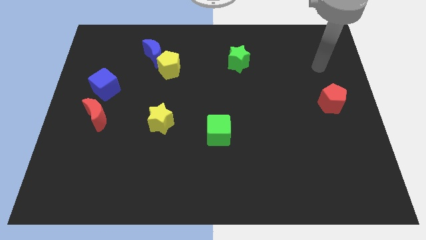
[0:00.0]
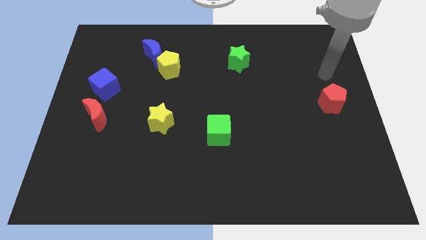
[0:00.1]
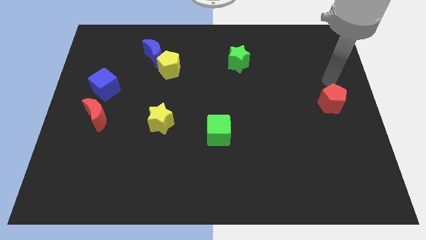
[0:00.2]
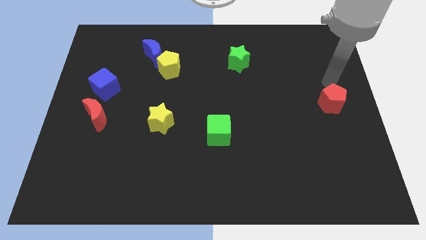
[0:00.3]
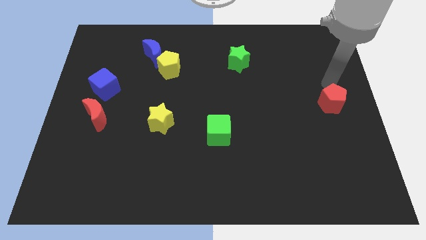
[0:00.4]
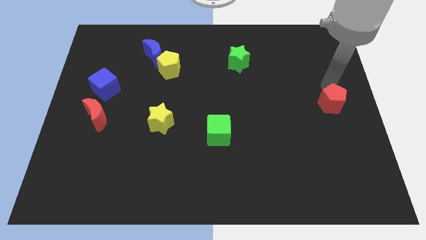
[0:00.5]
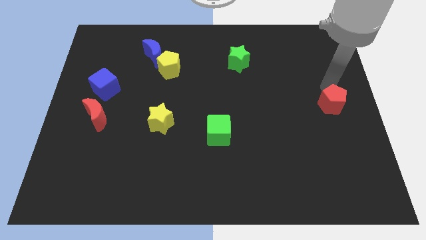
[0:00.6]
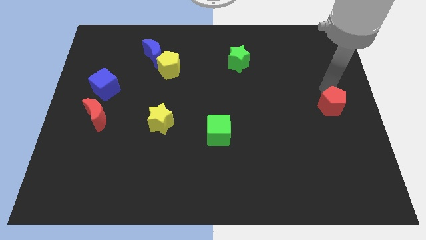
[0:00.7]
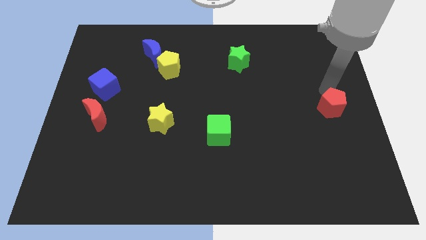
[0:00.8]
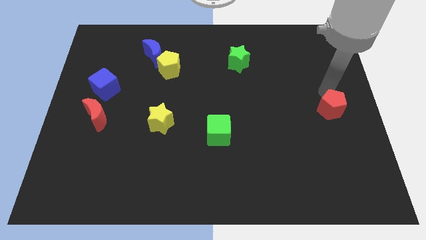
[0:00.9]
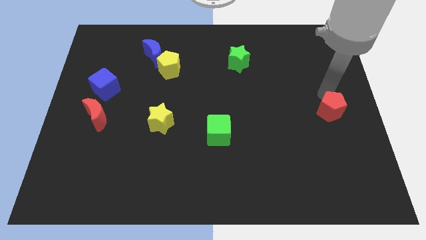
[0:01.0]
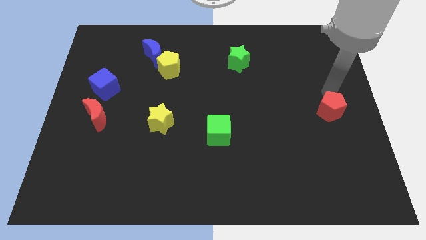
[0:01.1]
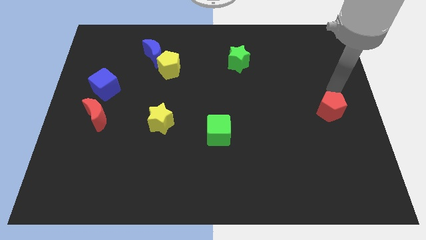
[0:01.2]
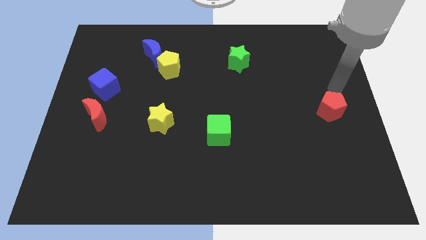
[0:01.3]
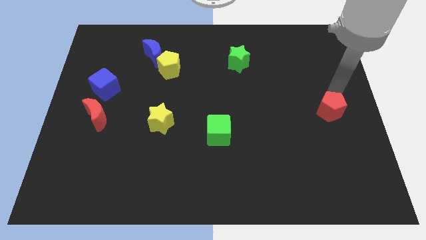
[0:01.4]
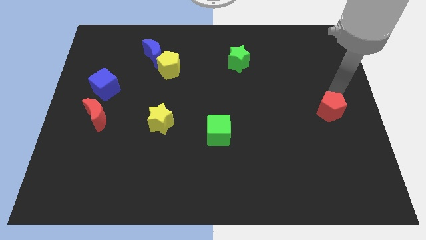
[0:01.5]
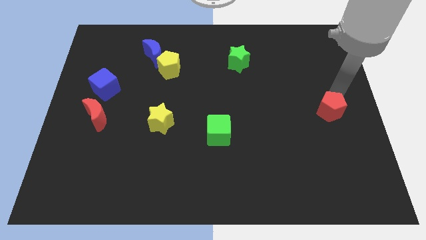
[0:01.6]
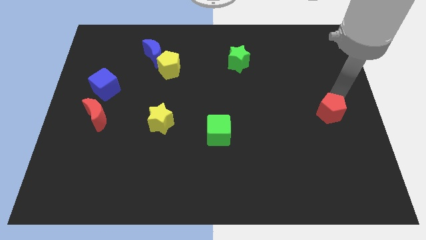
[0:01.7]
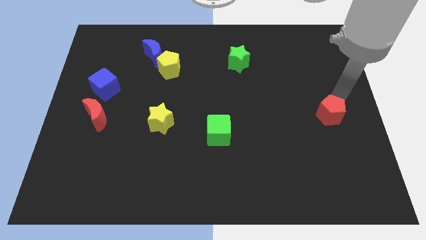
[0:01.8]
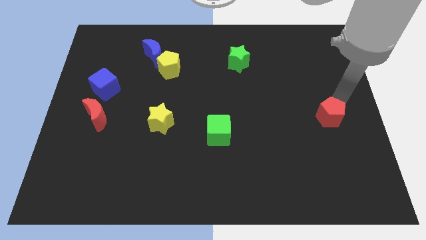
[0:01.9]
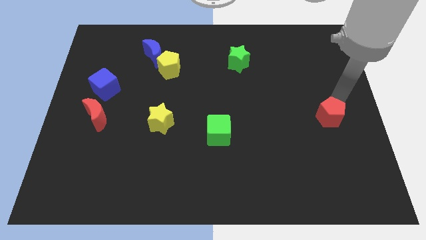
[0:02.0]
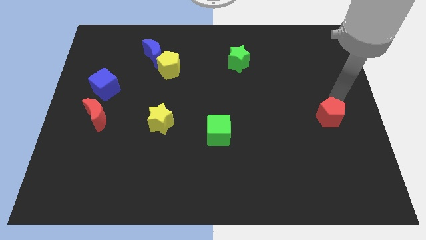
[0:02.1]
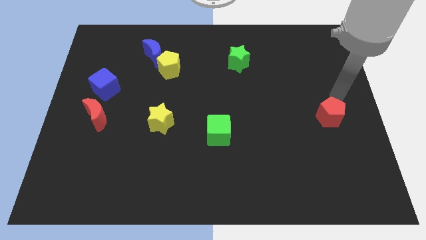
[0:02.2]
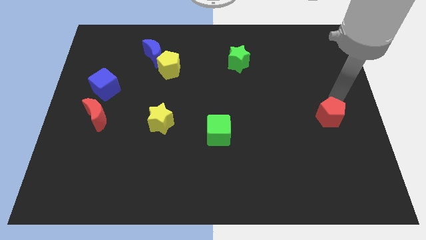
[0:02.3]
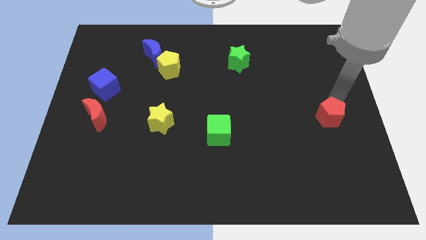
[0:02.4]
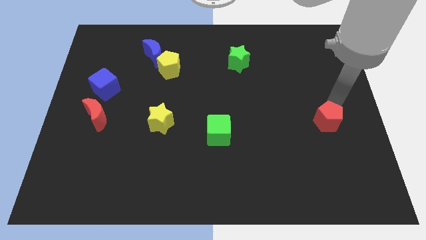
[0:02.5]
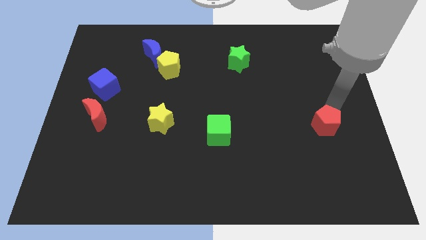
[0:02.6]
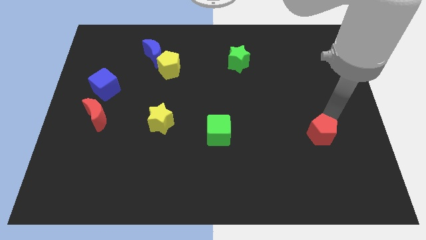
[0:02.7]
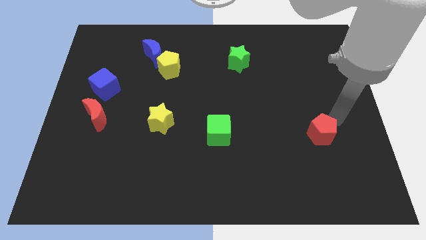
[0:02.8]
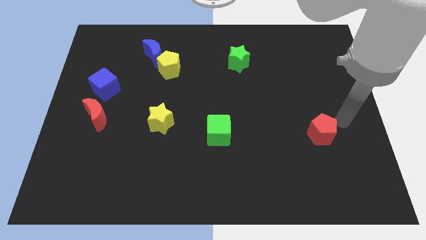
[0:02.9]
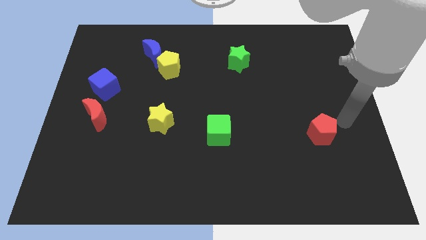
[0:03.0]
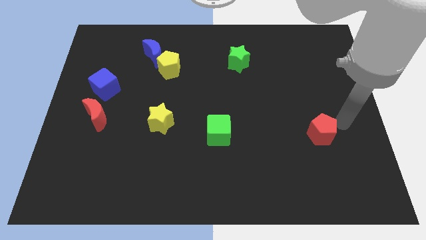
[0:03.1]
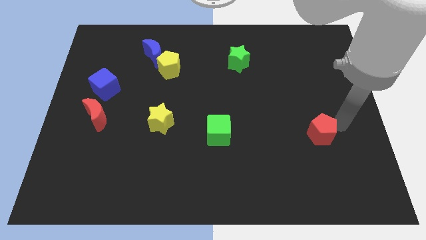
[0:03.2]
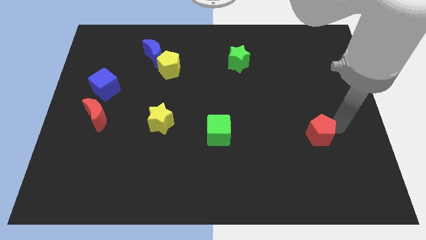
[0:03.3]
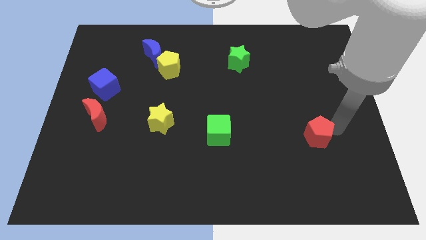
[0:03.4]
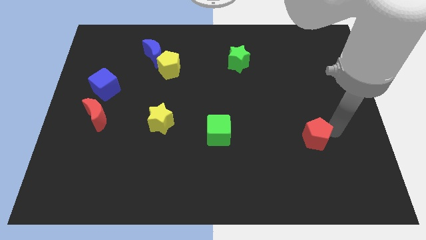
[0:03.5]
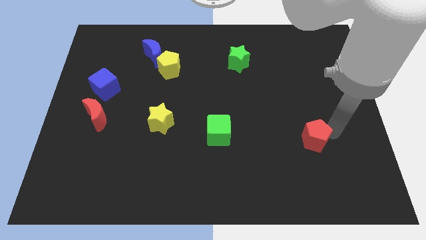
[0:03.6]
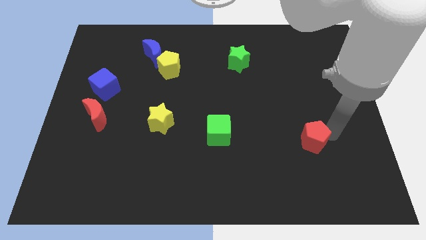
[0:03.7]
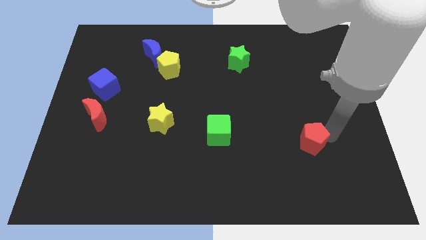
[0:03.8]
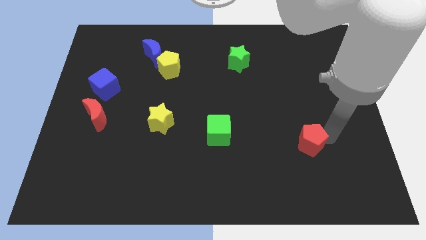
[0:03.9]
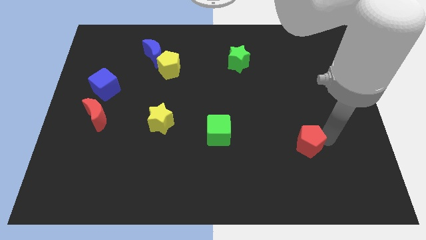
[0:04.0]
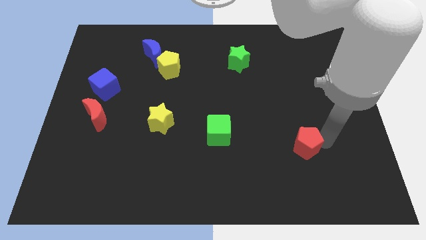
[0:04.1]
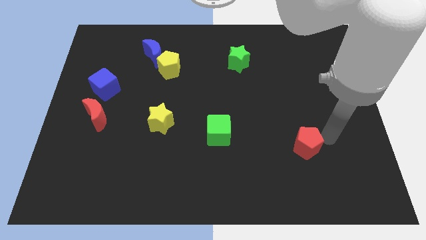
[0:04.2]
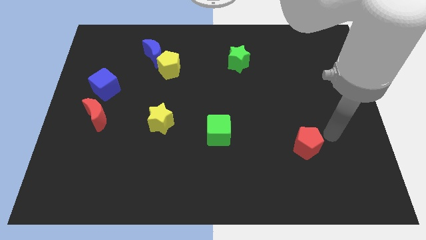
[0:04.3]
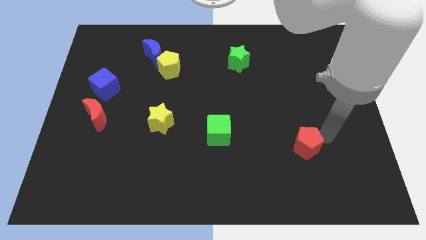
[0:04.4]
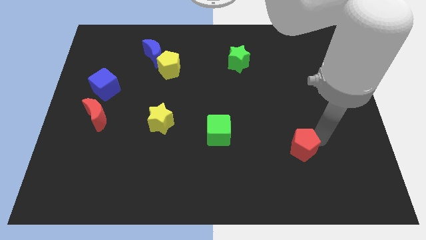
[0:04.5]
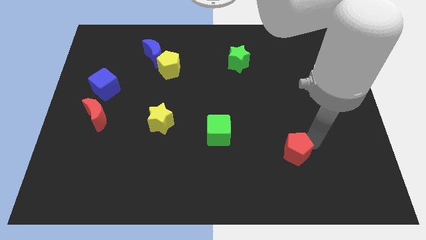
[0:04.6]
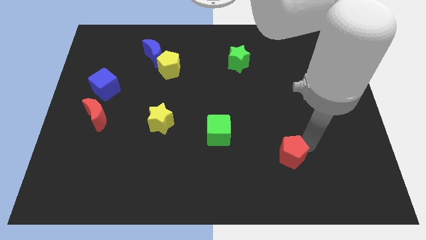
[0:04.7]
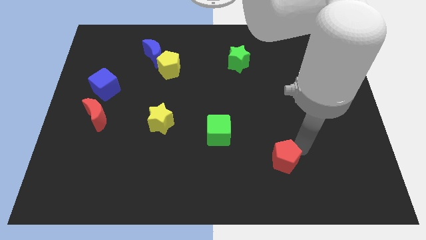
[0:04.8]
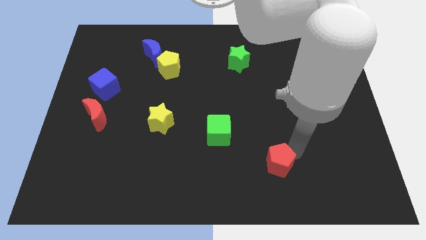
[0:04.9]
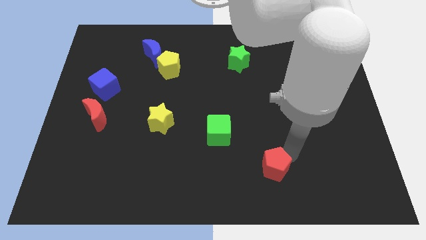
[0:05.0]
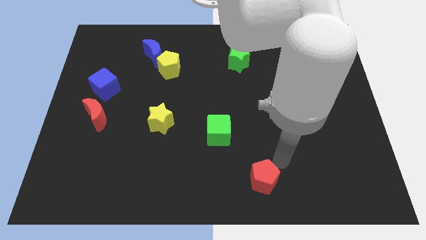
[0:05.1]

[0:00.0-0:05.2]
push the red pentagon to the bottom side
